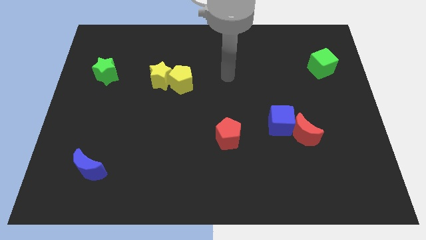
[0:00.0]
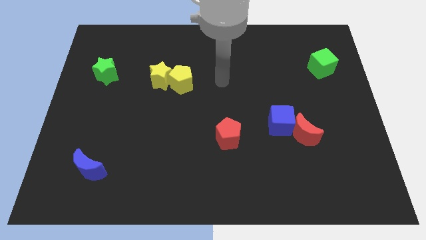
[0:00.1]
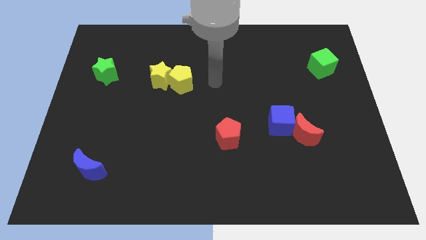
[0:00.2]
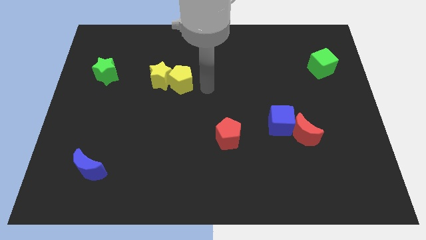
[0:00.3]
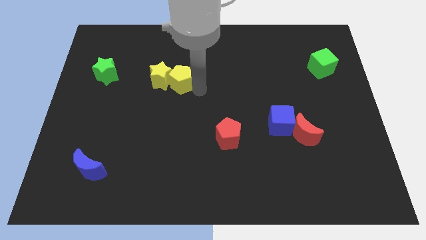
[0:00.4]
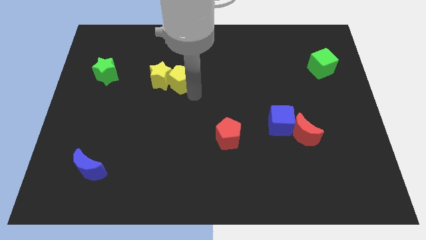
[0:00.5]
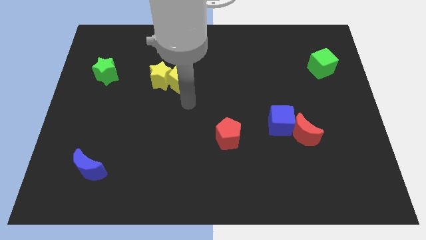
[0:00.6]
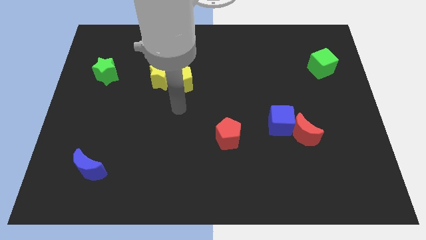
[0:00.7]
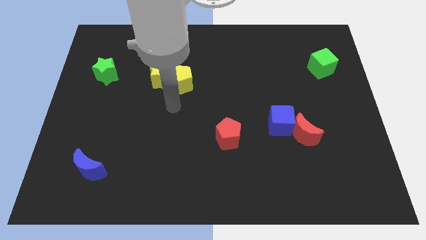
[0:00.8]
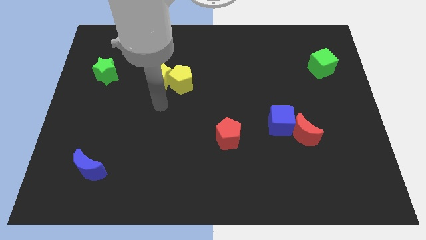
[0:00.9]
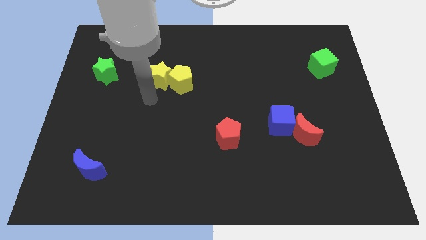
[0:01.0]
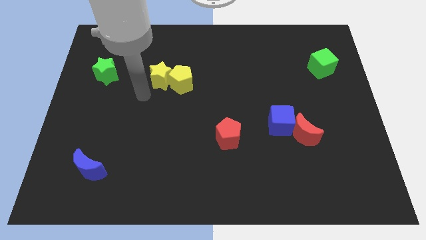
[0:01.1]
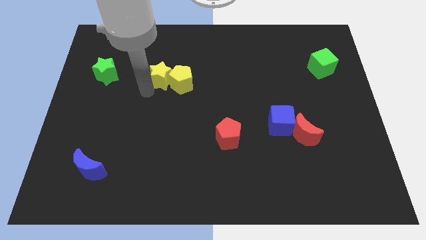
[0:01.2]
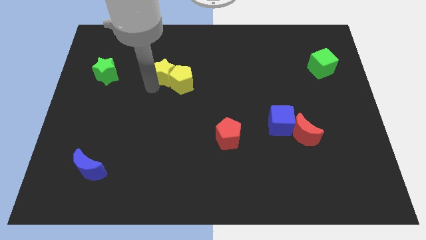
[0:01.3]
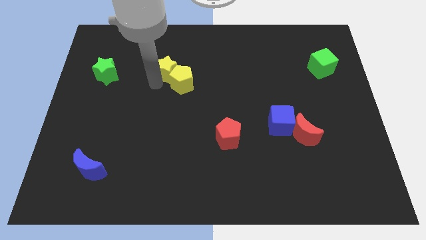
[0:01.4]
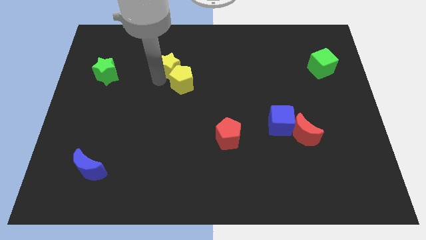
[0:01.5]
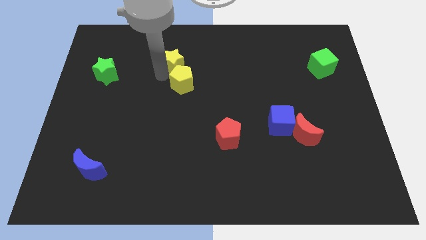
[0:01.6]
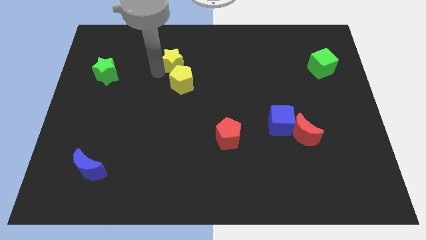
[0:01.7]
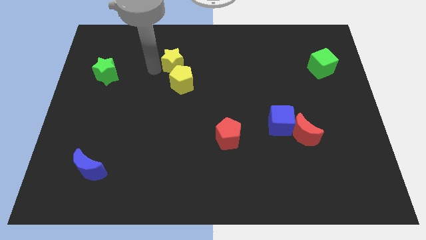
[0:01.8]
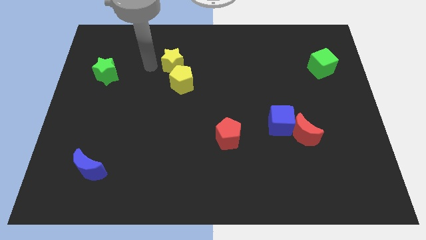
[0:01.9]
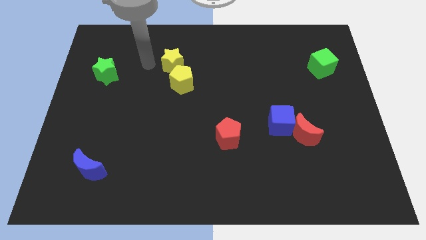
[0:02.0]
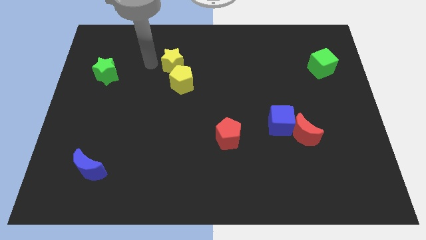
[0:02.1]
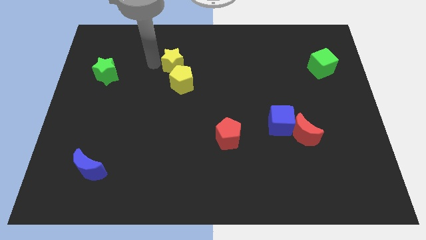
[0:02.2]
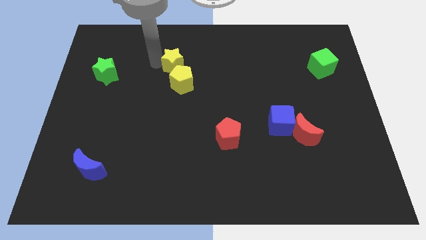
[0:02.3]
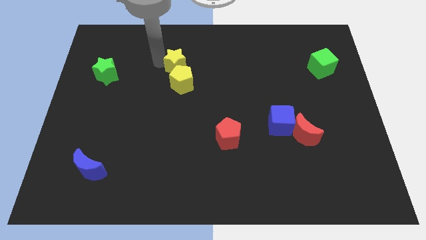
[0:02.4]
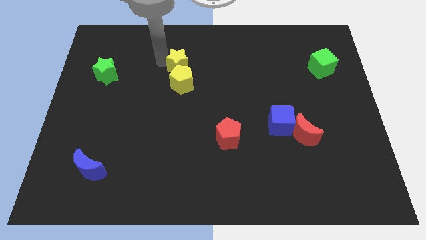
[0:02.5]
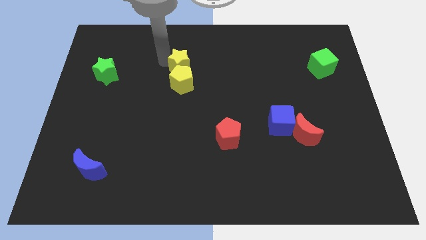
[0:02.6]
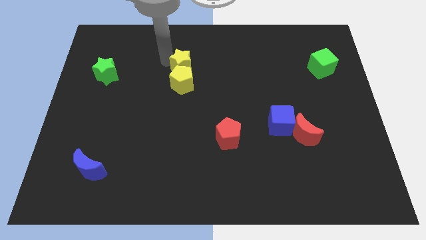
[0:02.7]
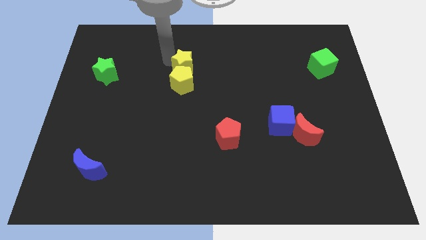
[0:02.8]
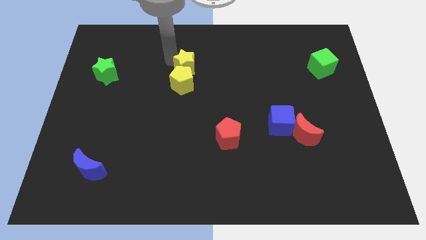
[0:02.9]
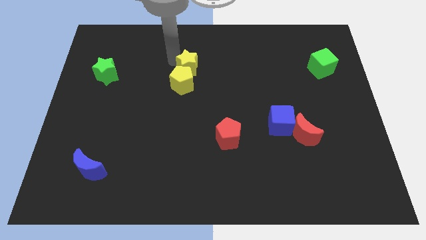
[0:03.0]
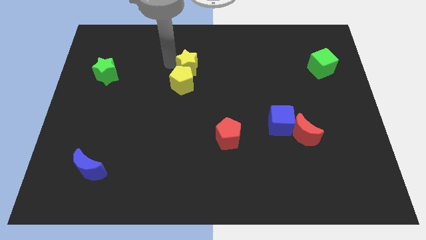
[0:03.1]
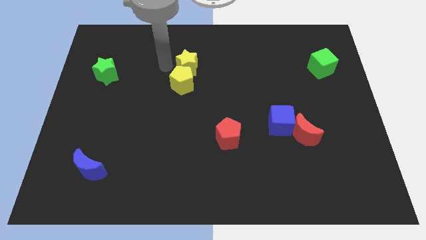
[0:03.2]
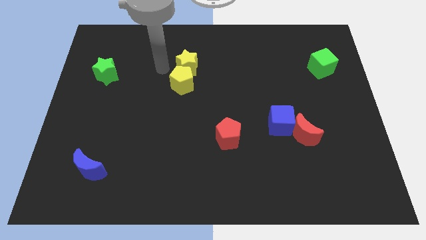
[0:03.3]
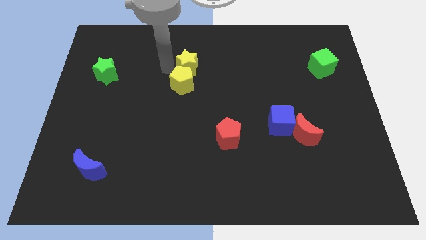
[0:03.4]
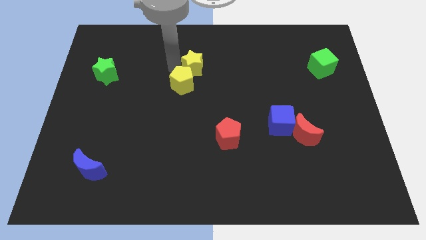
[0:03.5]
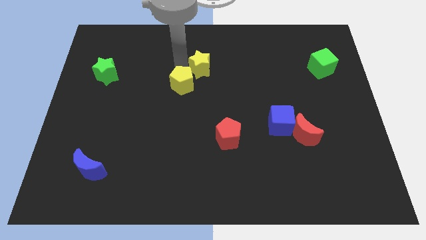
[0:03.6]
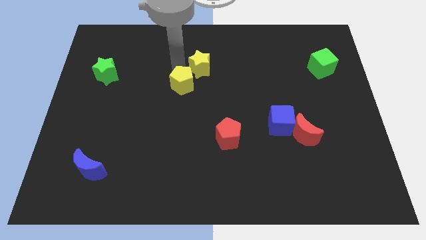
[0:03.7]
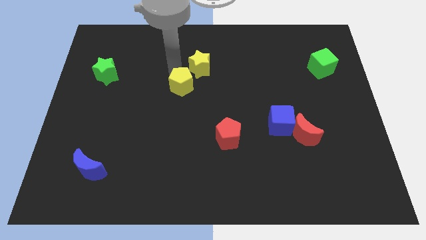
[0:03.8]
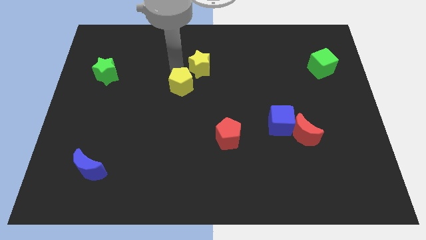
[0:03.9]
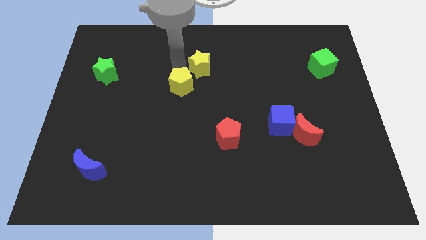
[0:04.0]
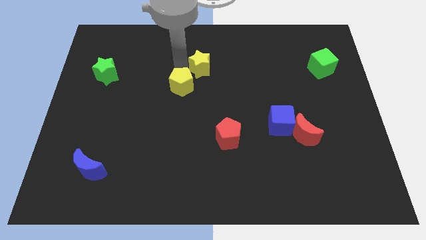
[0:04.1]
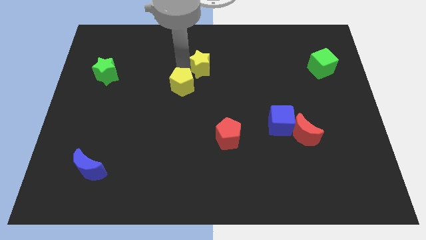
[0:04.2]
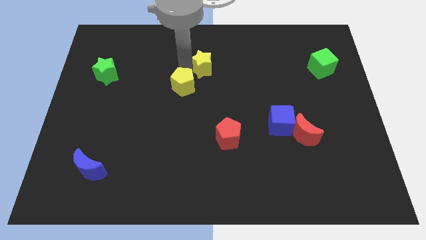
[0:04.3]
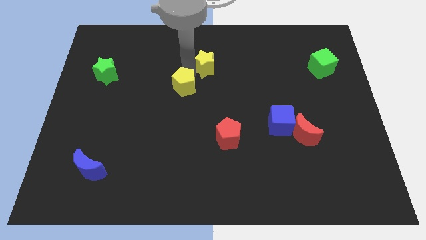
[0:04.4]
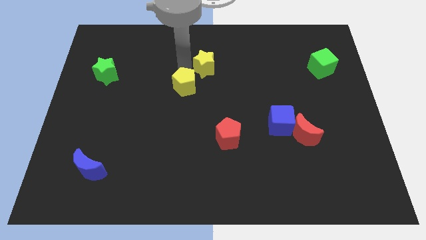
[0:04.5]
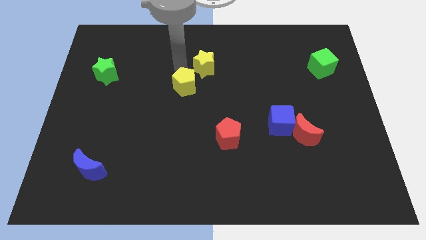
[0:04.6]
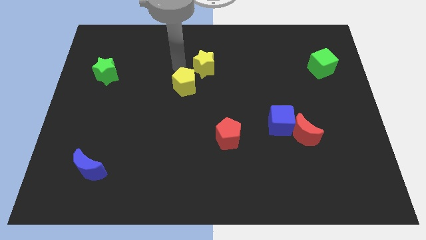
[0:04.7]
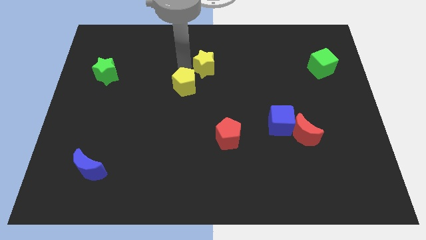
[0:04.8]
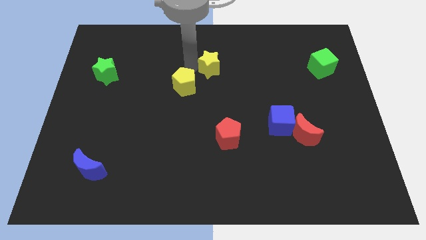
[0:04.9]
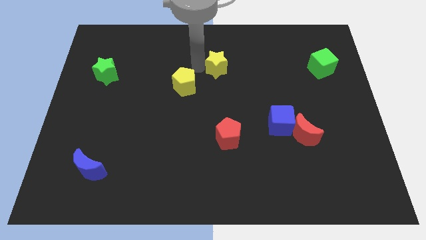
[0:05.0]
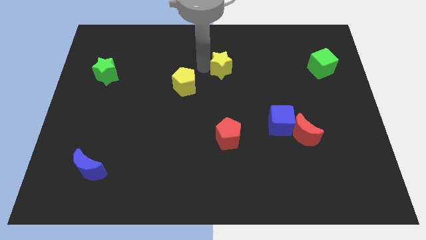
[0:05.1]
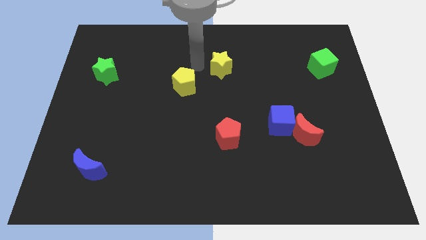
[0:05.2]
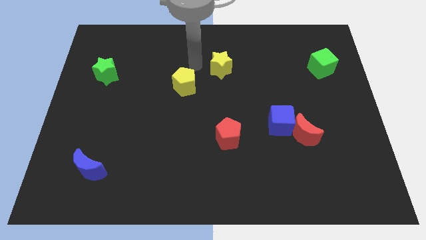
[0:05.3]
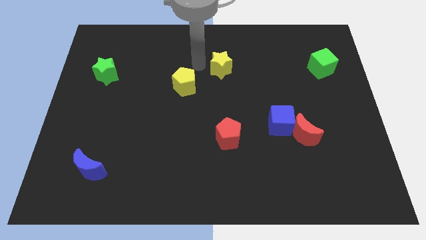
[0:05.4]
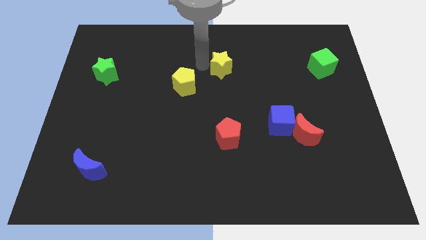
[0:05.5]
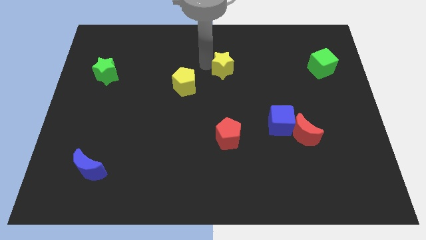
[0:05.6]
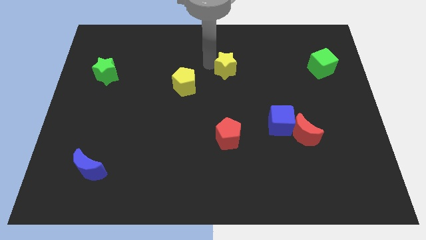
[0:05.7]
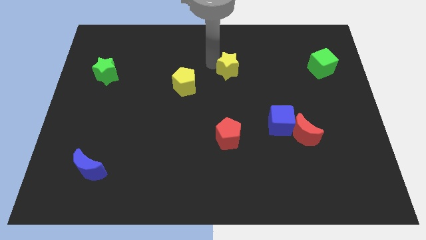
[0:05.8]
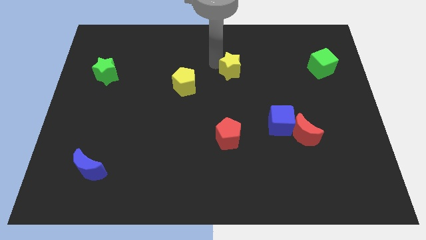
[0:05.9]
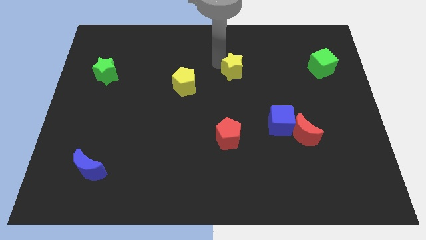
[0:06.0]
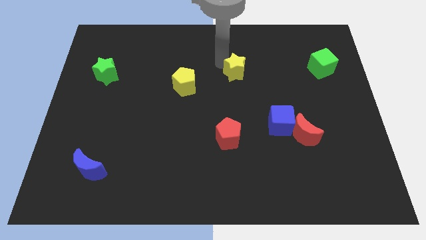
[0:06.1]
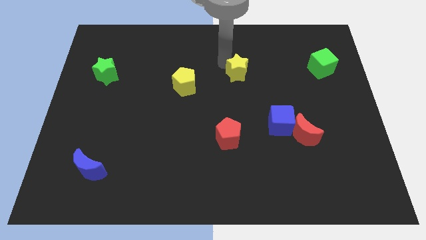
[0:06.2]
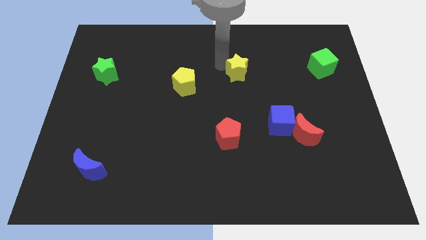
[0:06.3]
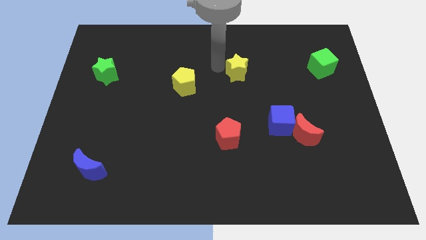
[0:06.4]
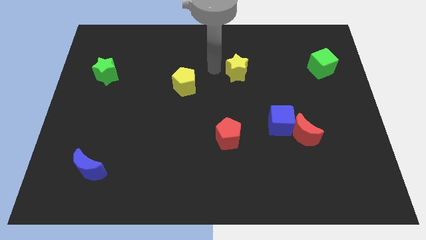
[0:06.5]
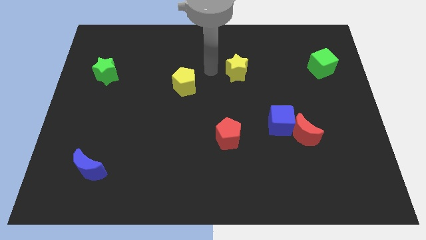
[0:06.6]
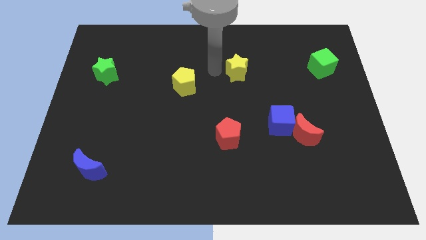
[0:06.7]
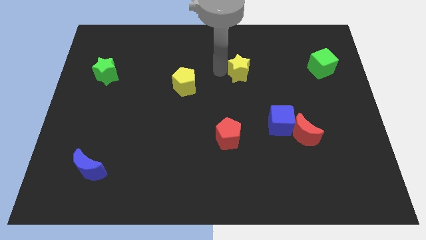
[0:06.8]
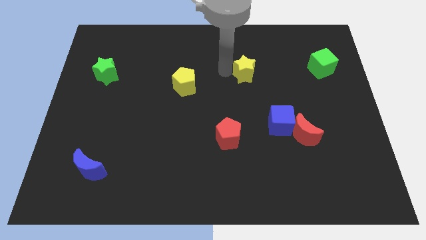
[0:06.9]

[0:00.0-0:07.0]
push the yellow star to the right

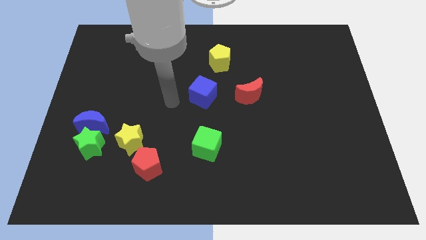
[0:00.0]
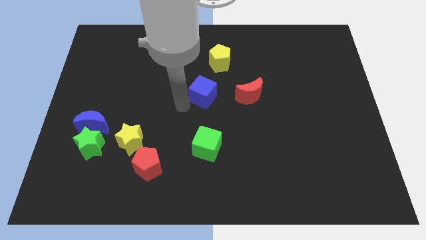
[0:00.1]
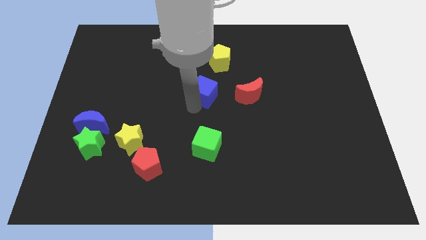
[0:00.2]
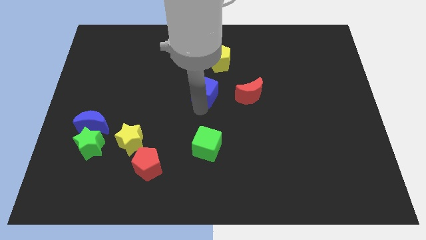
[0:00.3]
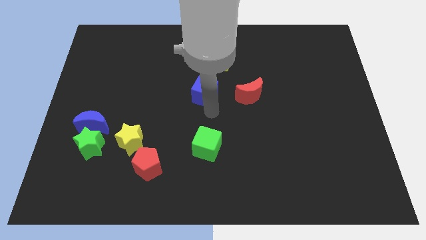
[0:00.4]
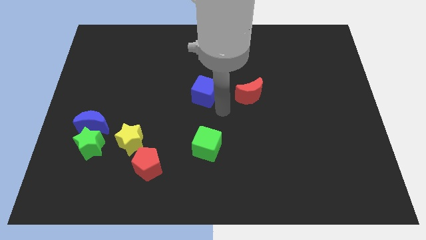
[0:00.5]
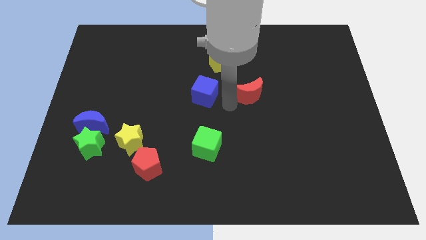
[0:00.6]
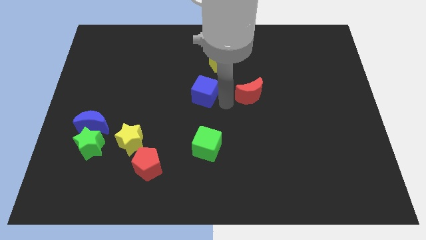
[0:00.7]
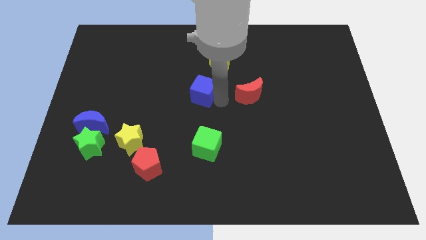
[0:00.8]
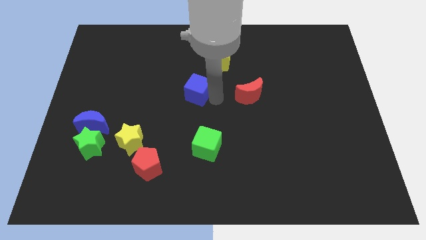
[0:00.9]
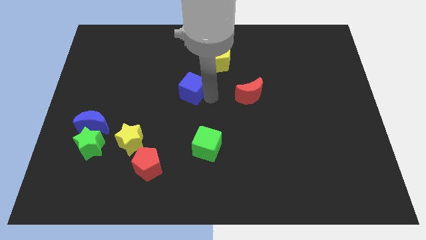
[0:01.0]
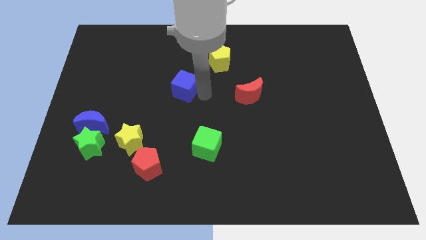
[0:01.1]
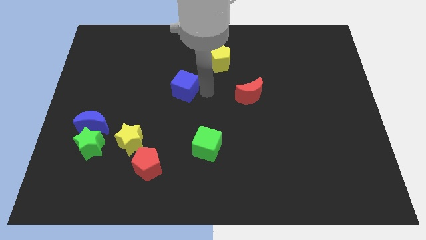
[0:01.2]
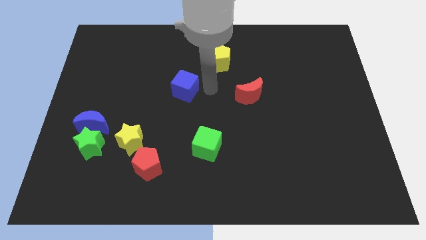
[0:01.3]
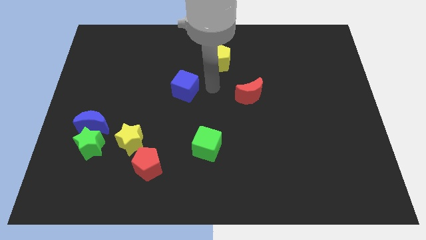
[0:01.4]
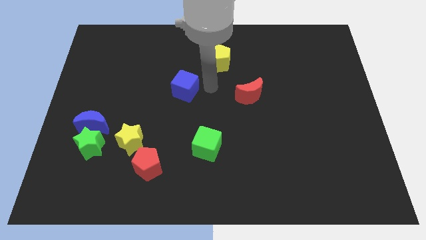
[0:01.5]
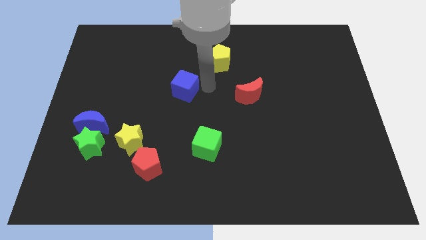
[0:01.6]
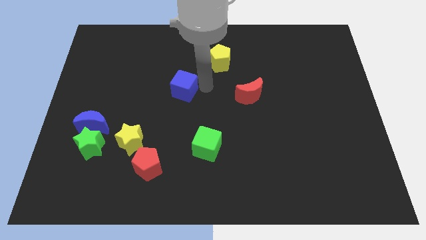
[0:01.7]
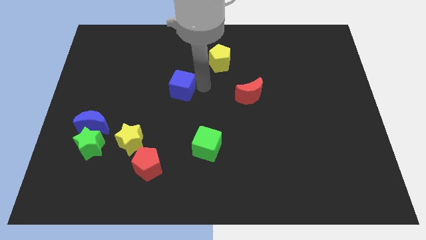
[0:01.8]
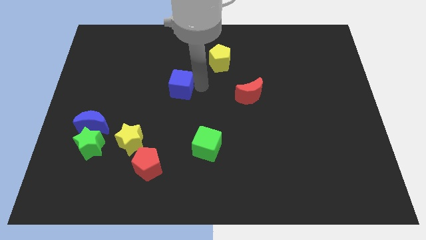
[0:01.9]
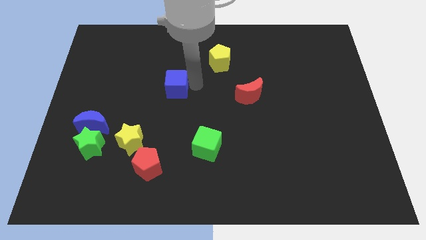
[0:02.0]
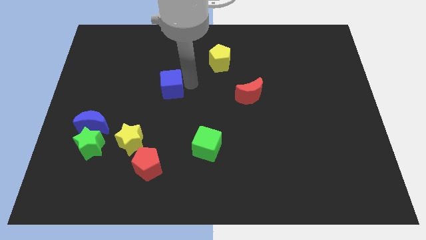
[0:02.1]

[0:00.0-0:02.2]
slightly push the blue cube to the left
